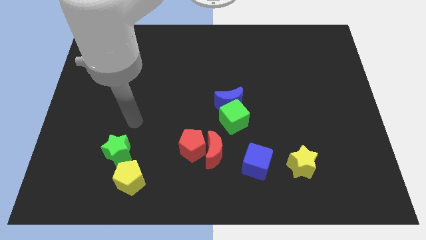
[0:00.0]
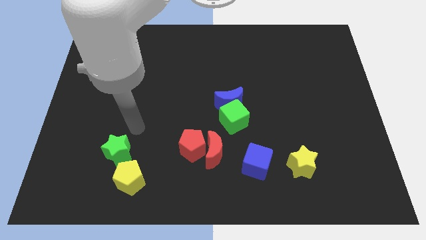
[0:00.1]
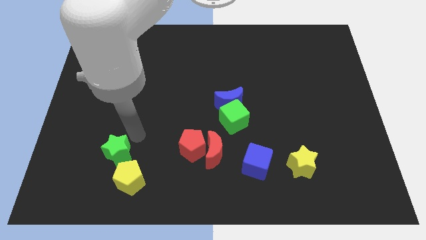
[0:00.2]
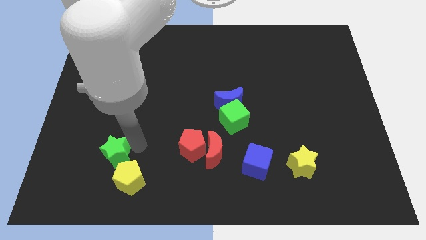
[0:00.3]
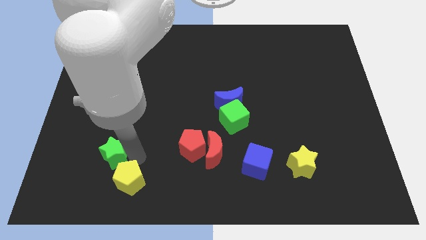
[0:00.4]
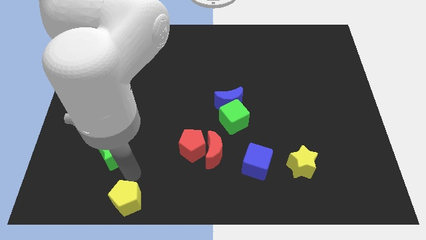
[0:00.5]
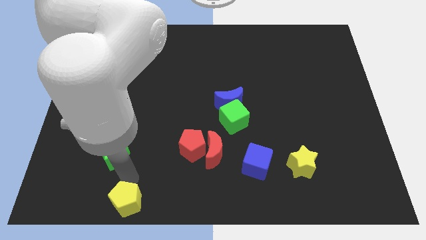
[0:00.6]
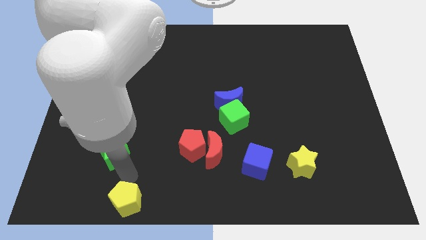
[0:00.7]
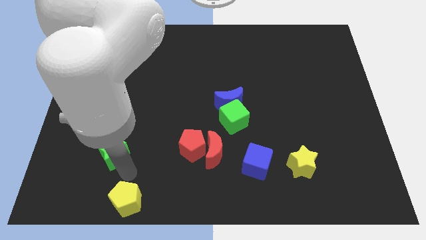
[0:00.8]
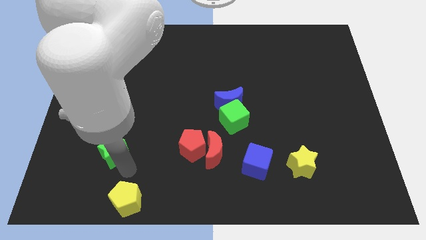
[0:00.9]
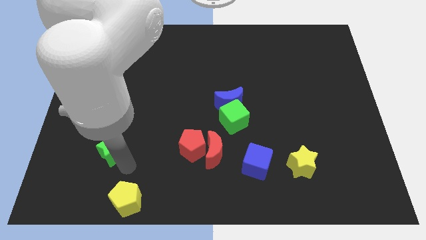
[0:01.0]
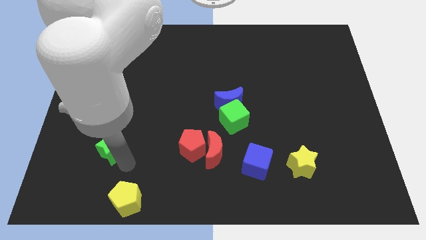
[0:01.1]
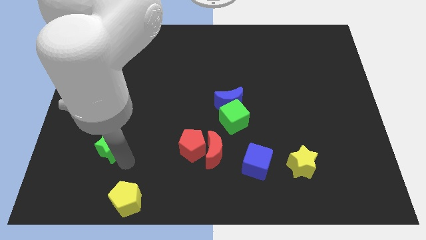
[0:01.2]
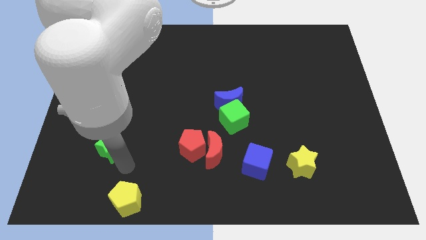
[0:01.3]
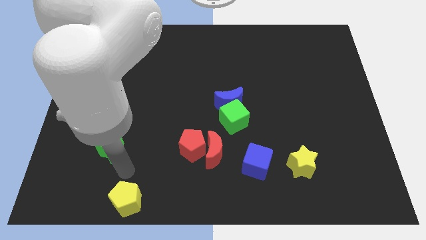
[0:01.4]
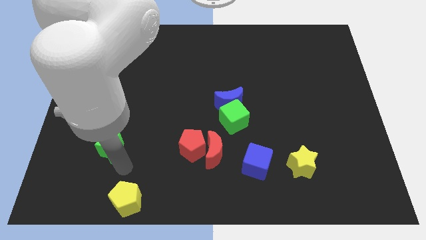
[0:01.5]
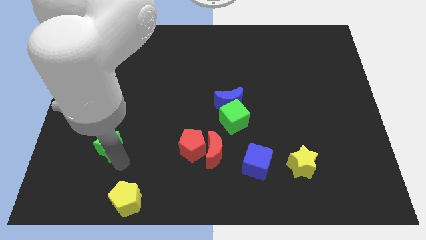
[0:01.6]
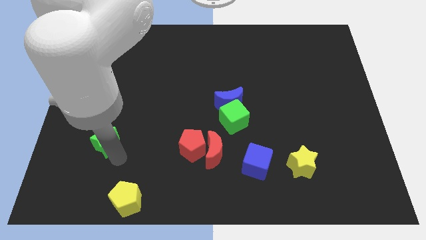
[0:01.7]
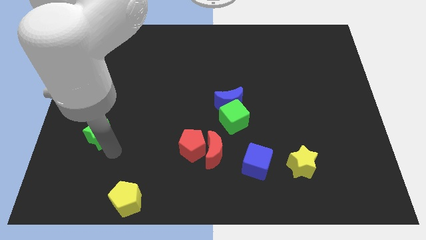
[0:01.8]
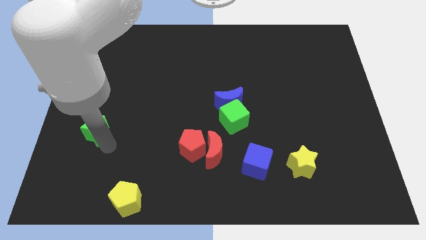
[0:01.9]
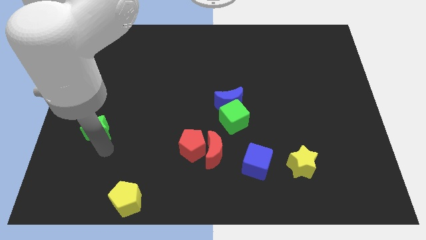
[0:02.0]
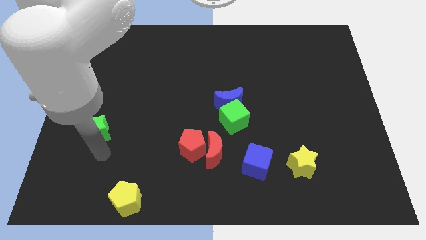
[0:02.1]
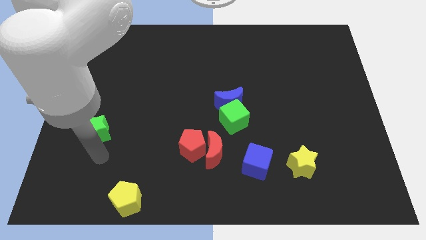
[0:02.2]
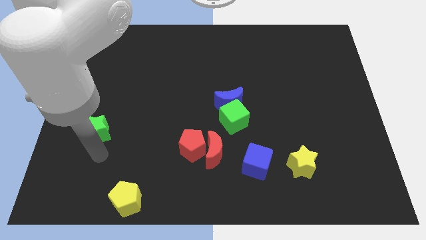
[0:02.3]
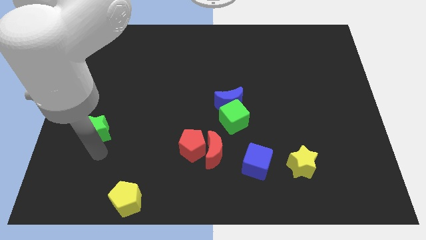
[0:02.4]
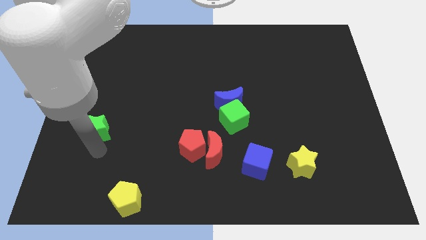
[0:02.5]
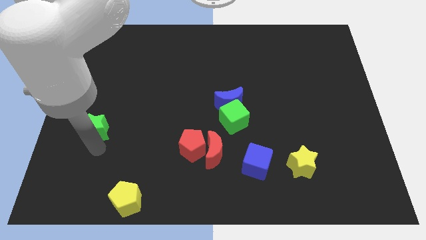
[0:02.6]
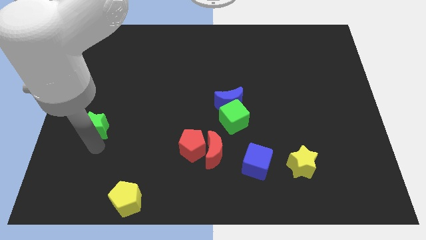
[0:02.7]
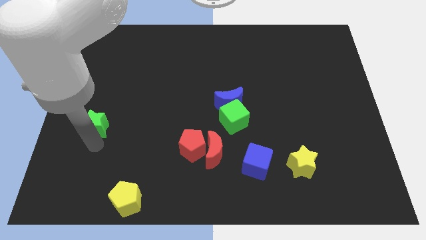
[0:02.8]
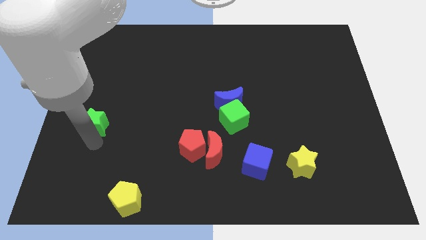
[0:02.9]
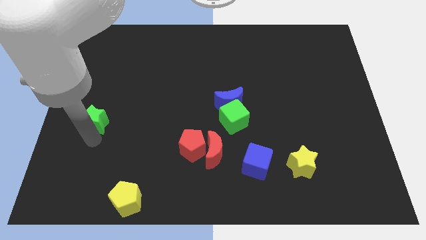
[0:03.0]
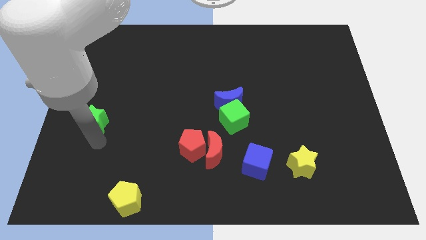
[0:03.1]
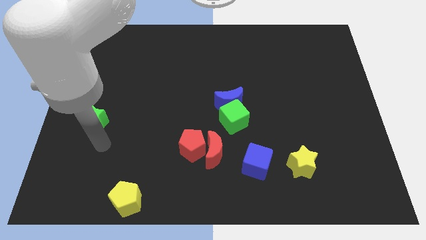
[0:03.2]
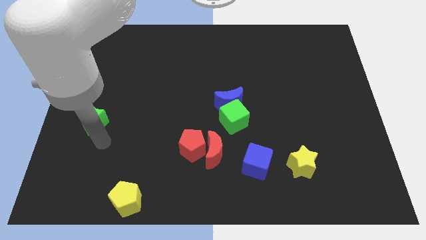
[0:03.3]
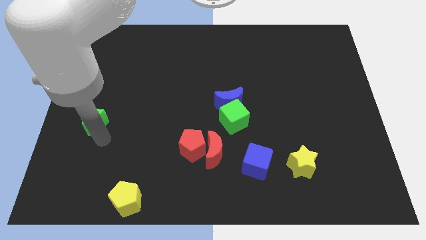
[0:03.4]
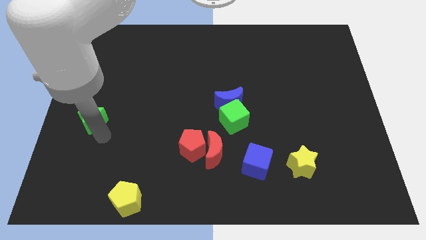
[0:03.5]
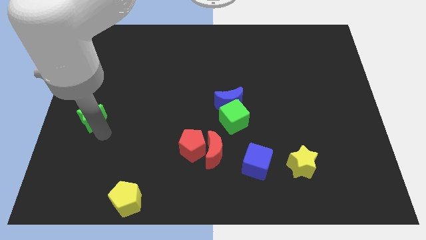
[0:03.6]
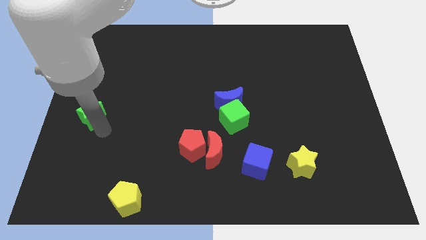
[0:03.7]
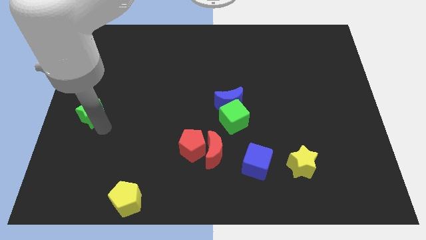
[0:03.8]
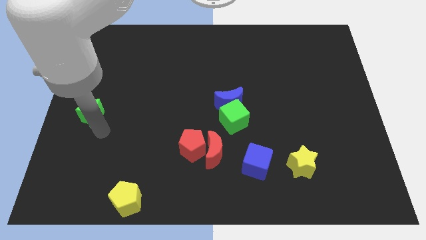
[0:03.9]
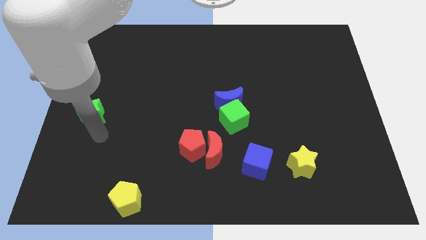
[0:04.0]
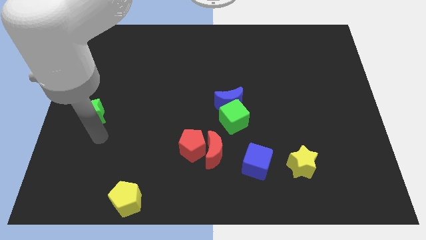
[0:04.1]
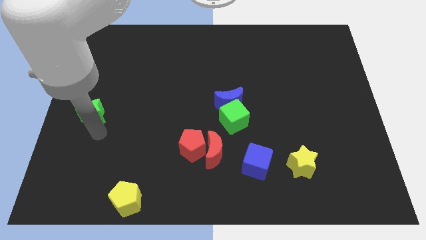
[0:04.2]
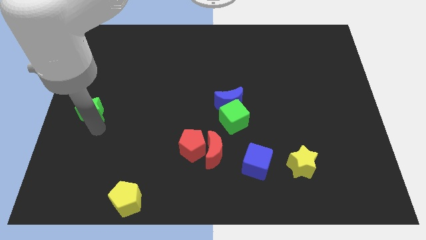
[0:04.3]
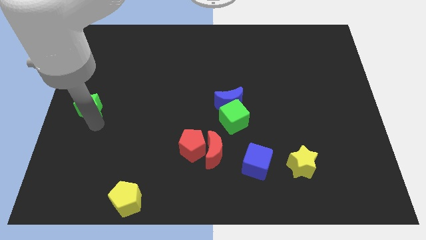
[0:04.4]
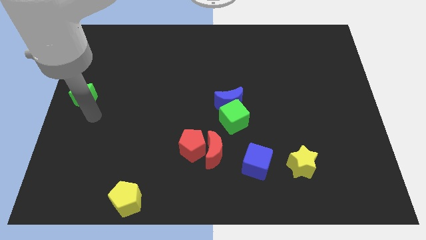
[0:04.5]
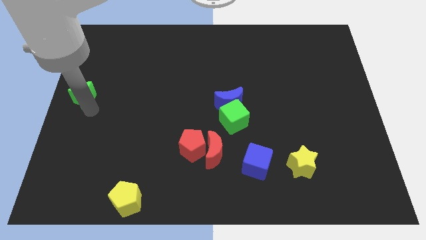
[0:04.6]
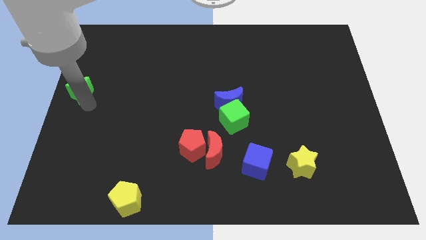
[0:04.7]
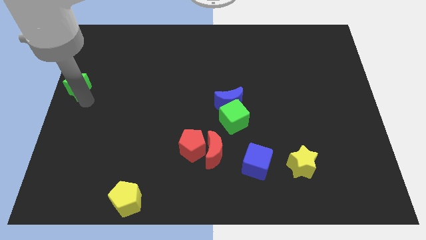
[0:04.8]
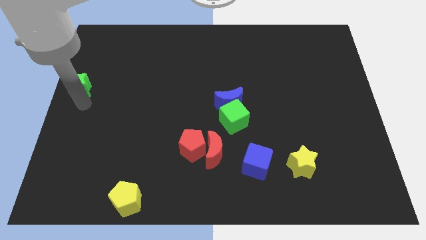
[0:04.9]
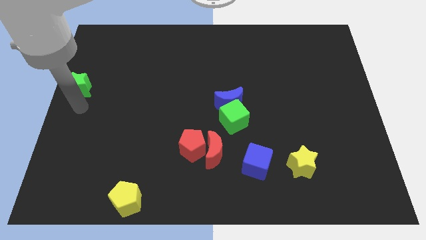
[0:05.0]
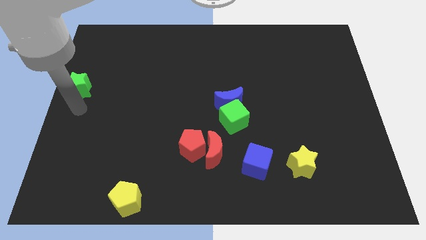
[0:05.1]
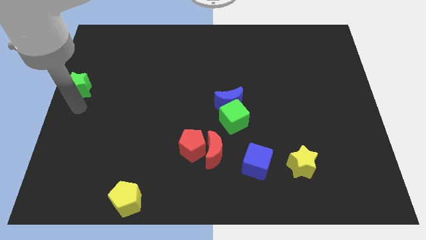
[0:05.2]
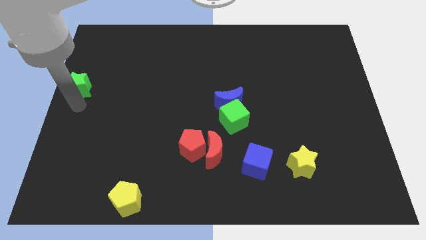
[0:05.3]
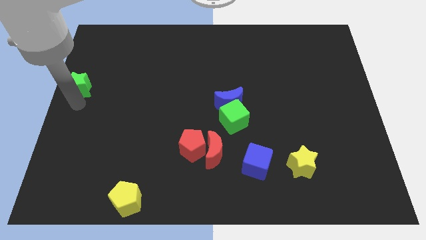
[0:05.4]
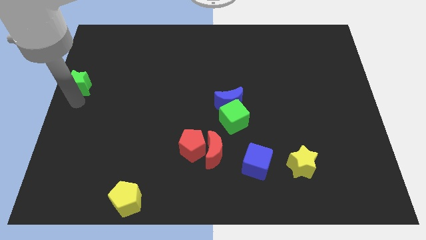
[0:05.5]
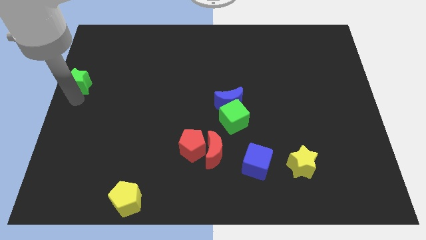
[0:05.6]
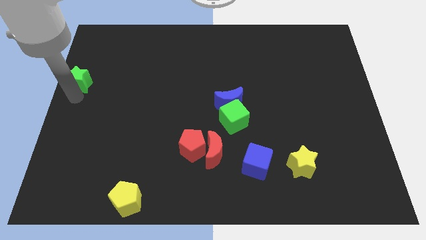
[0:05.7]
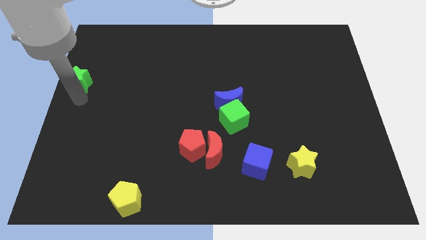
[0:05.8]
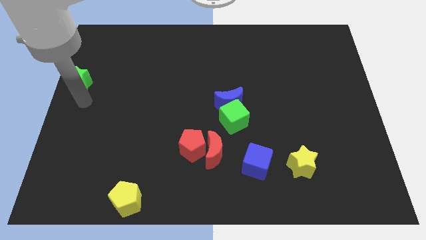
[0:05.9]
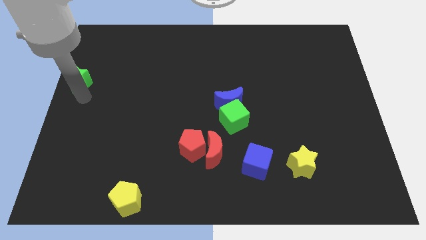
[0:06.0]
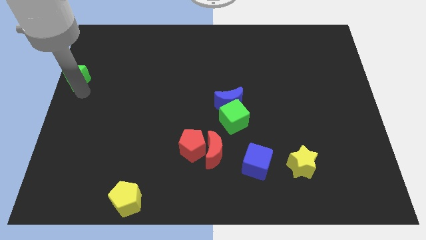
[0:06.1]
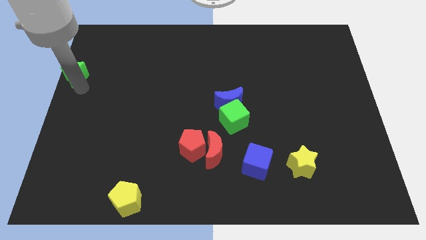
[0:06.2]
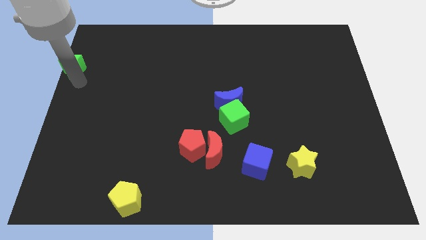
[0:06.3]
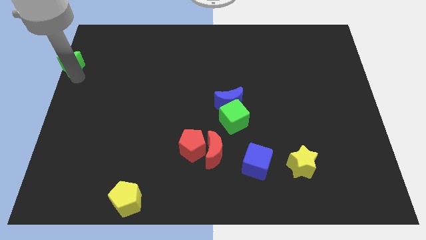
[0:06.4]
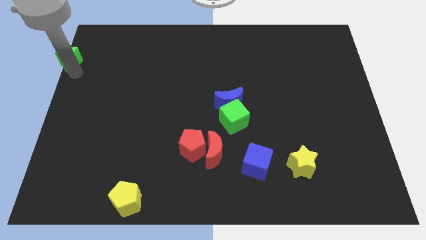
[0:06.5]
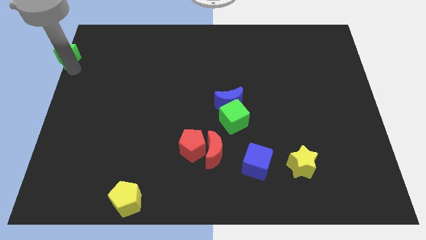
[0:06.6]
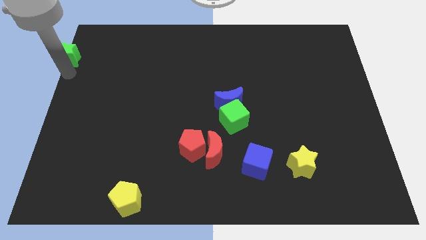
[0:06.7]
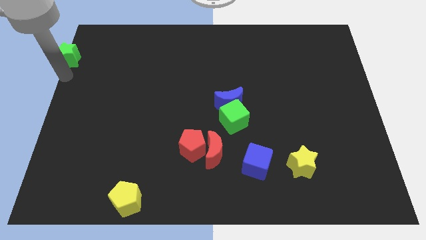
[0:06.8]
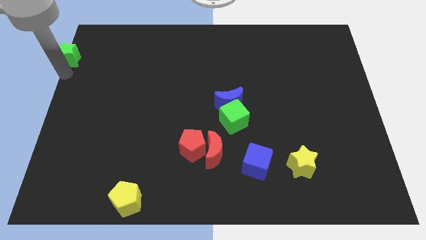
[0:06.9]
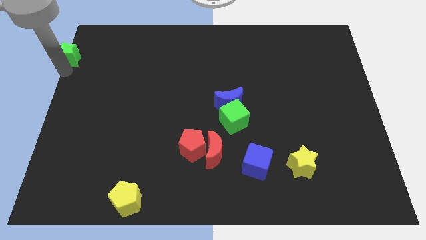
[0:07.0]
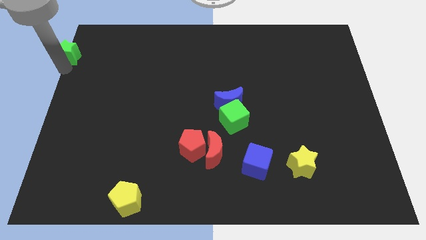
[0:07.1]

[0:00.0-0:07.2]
push the green star to the top left
